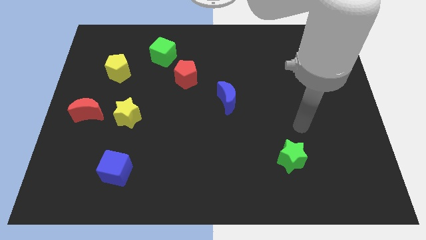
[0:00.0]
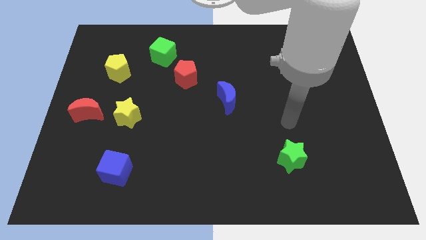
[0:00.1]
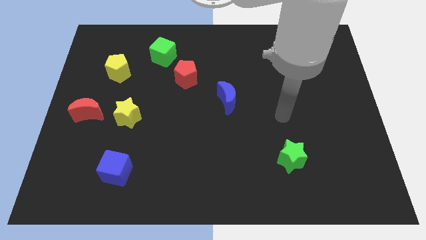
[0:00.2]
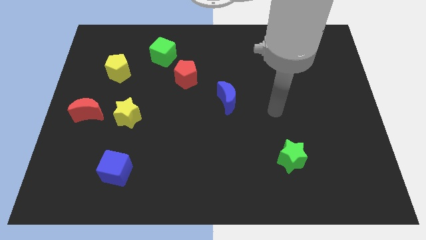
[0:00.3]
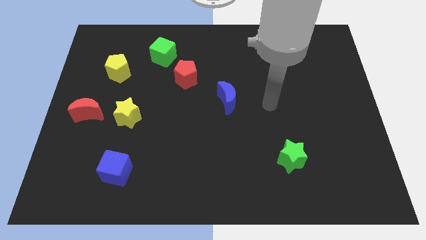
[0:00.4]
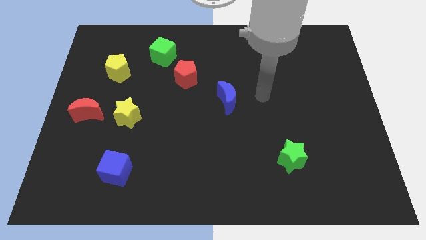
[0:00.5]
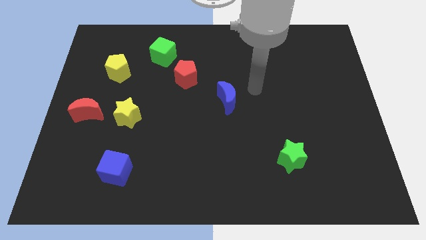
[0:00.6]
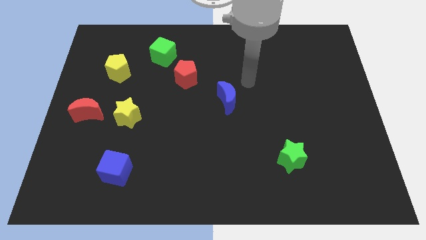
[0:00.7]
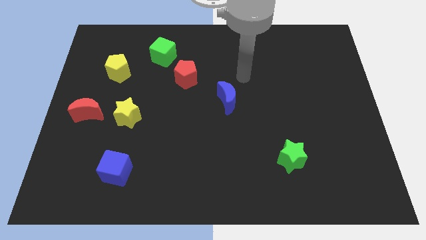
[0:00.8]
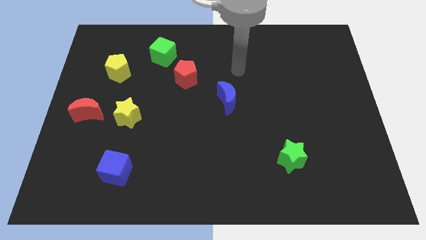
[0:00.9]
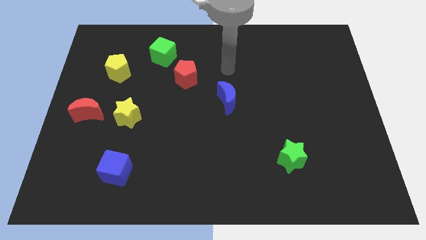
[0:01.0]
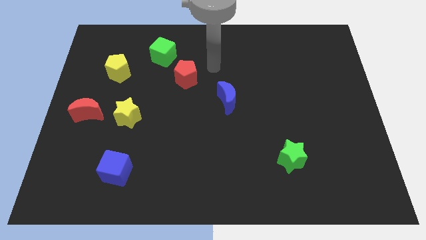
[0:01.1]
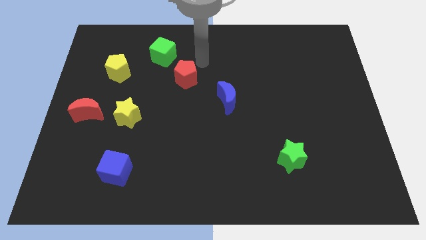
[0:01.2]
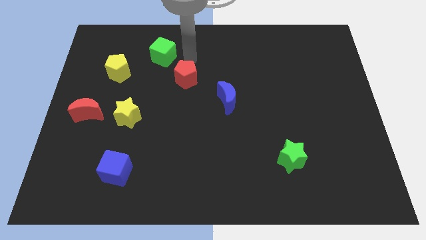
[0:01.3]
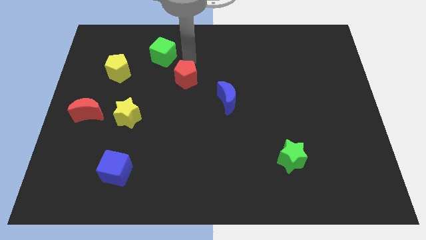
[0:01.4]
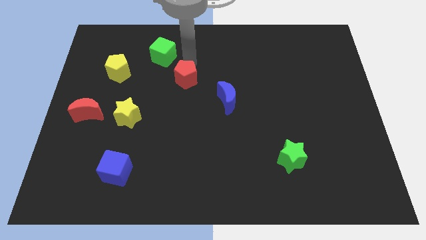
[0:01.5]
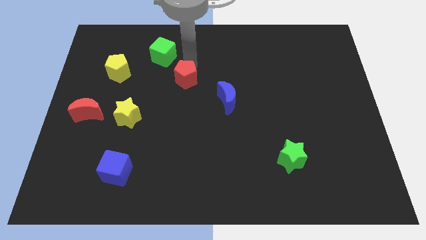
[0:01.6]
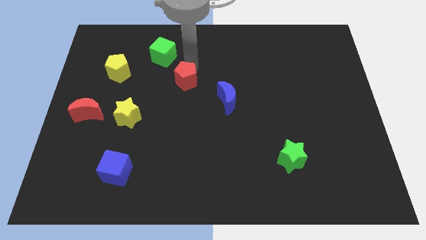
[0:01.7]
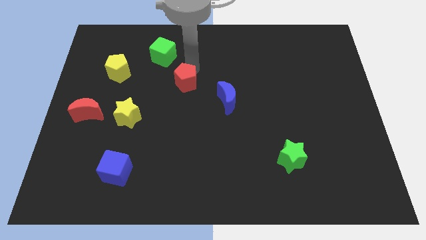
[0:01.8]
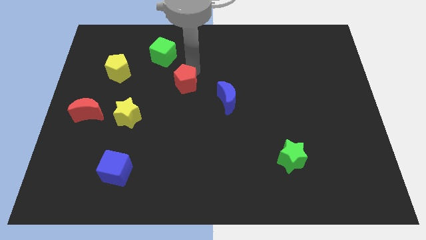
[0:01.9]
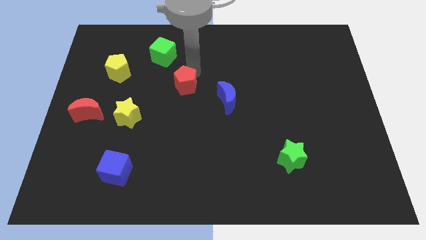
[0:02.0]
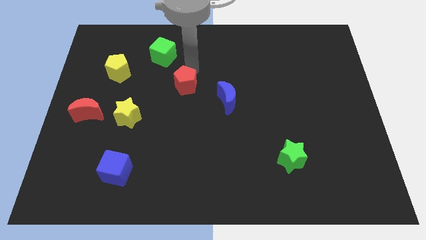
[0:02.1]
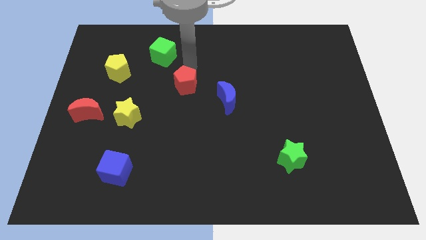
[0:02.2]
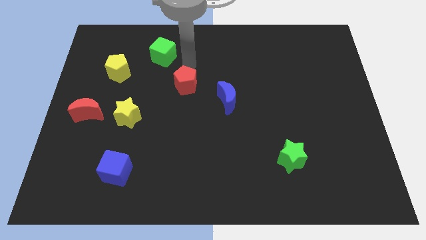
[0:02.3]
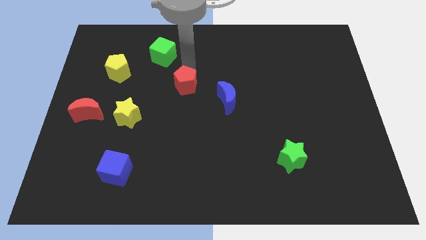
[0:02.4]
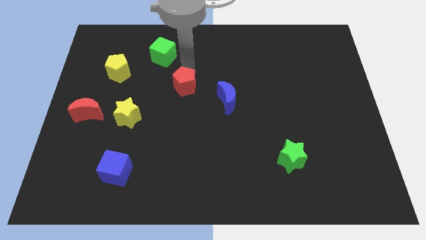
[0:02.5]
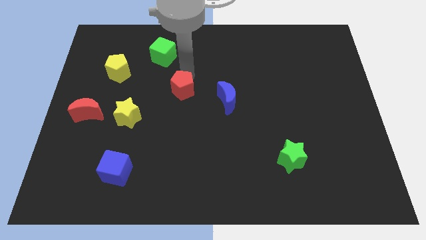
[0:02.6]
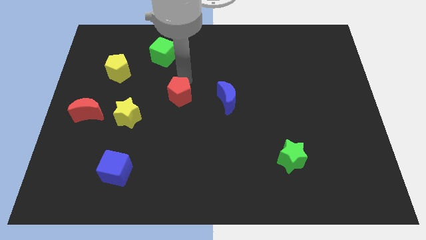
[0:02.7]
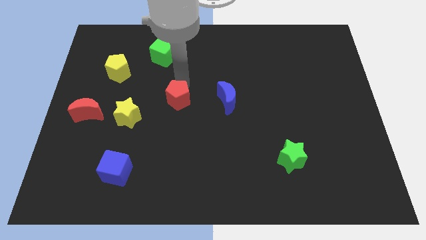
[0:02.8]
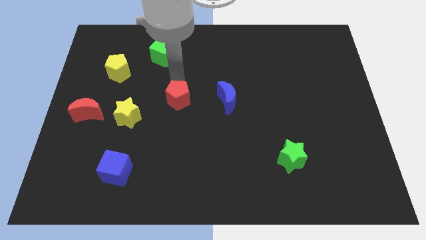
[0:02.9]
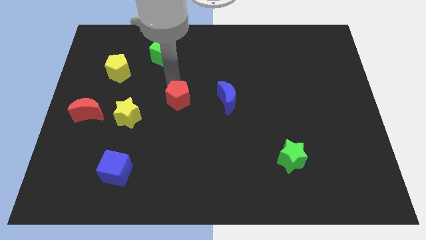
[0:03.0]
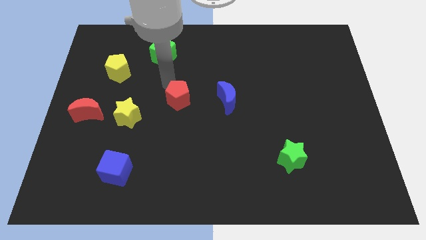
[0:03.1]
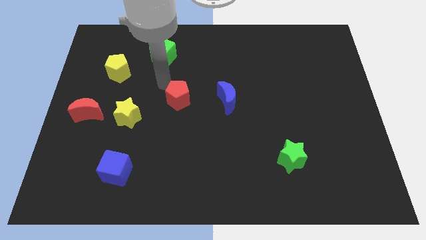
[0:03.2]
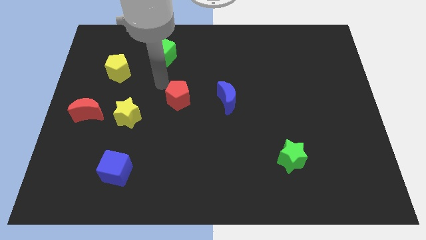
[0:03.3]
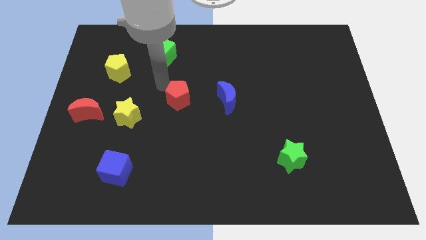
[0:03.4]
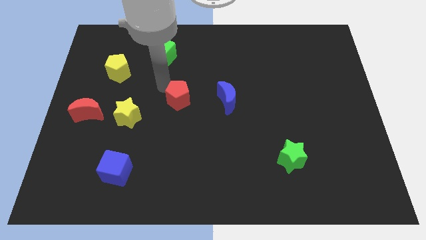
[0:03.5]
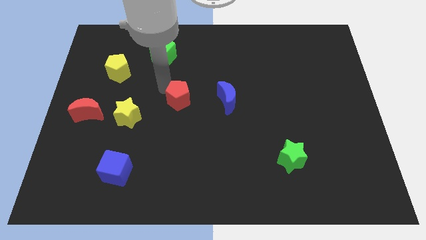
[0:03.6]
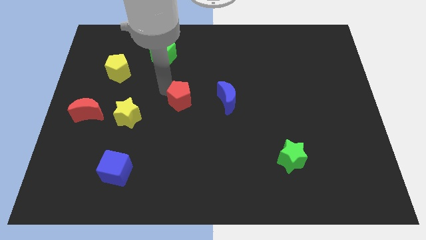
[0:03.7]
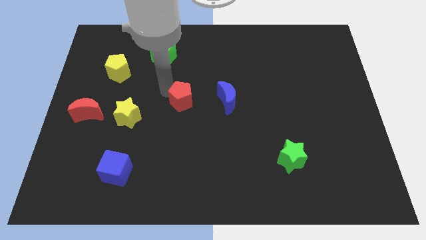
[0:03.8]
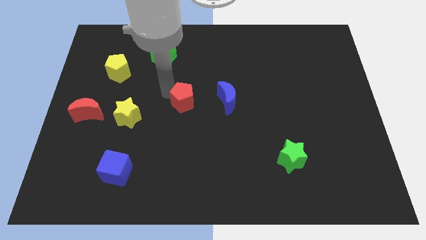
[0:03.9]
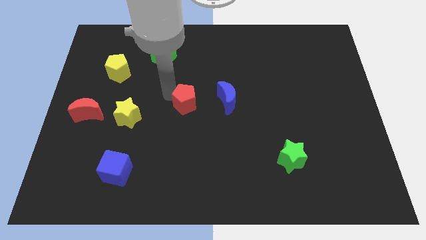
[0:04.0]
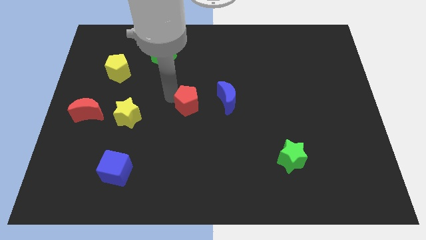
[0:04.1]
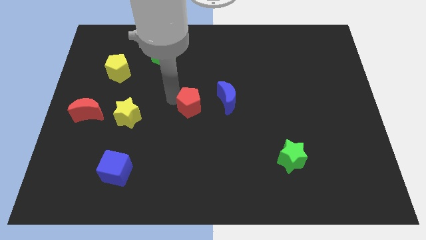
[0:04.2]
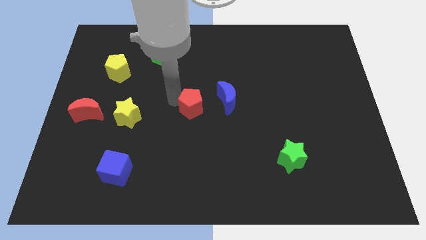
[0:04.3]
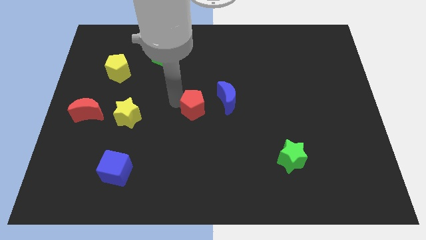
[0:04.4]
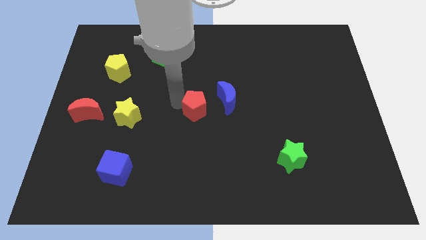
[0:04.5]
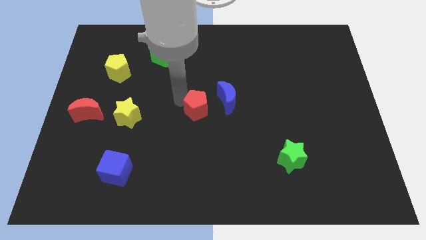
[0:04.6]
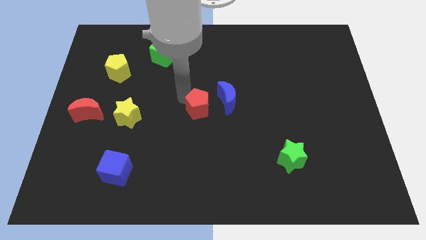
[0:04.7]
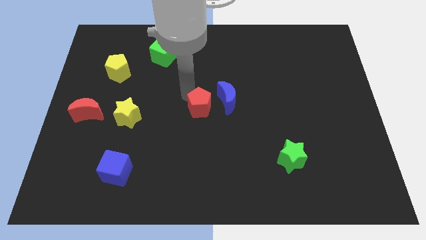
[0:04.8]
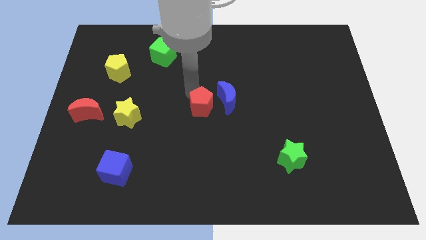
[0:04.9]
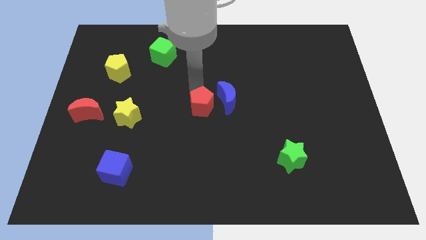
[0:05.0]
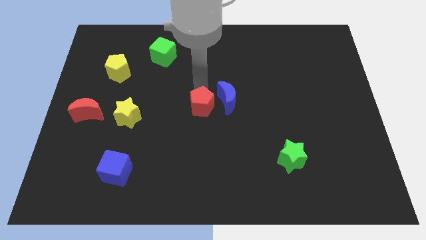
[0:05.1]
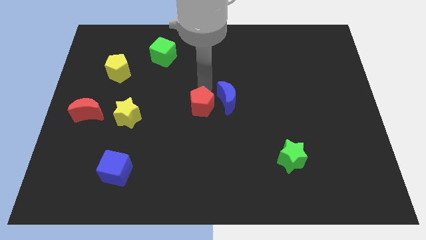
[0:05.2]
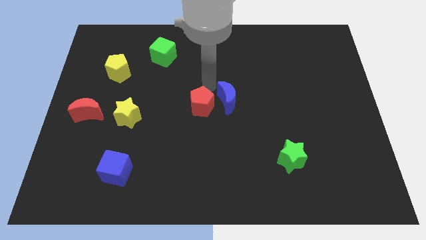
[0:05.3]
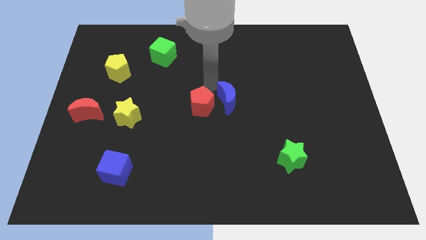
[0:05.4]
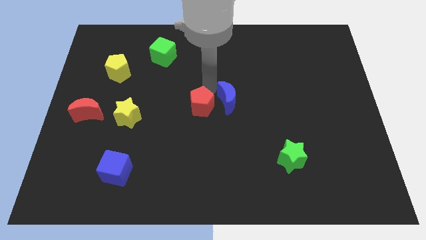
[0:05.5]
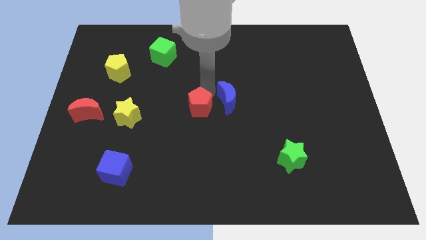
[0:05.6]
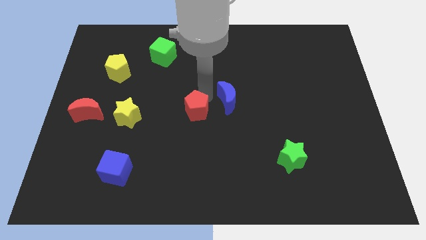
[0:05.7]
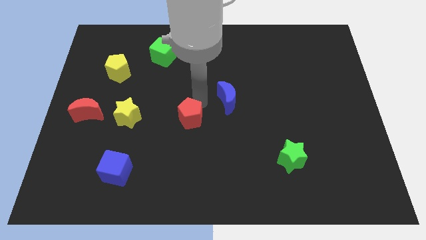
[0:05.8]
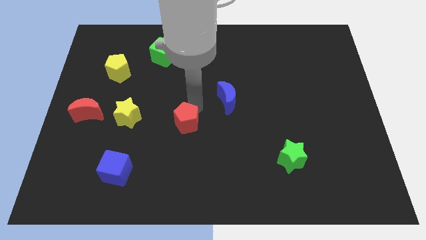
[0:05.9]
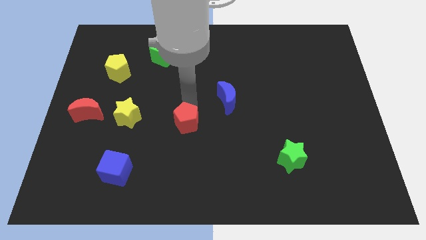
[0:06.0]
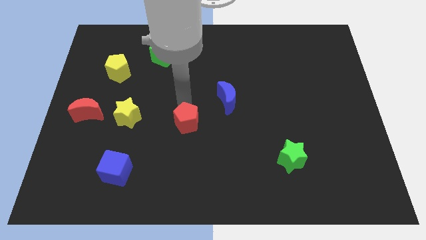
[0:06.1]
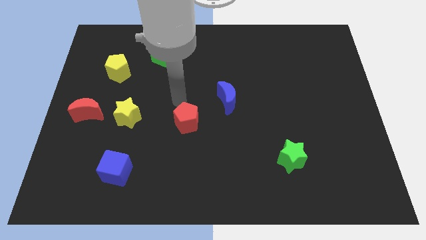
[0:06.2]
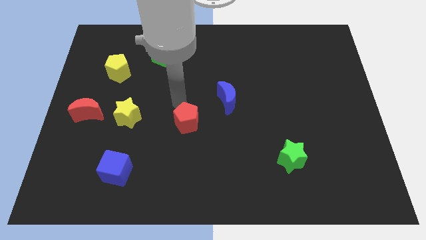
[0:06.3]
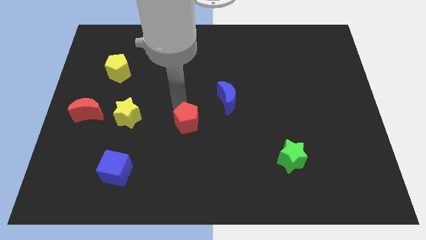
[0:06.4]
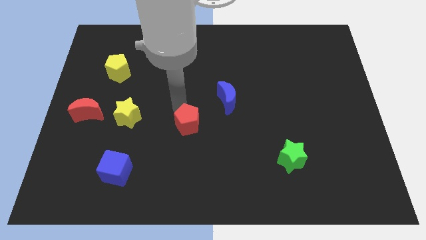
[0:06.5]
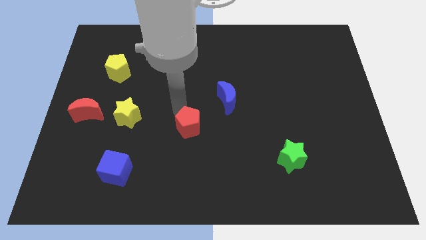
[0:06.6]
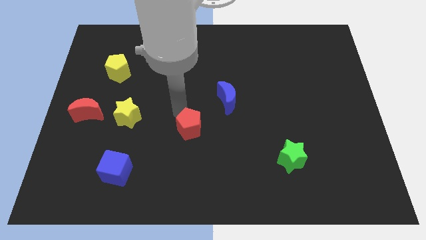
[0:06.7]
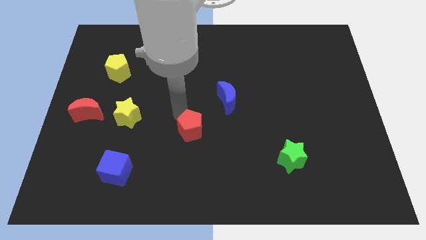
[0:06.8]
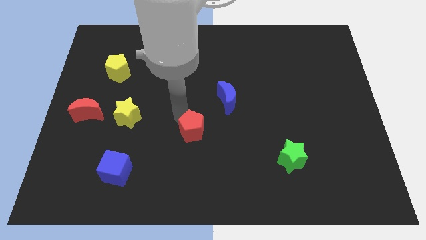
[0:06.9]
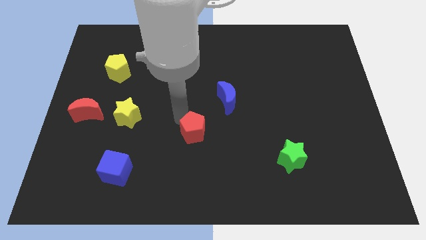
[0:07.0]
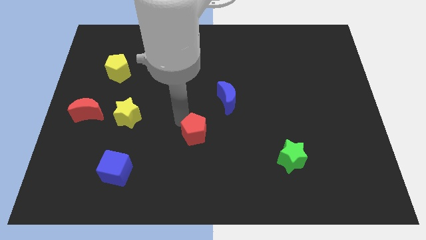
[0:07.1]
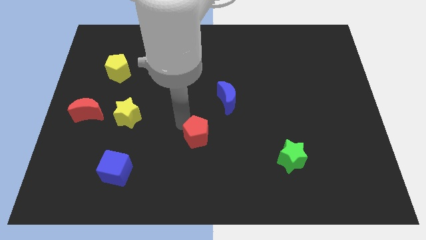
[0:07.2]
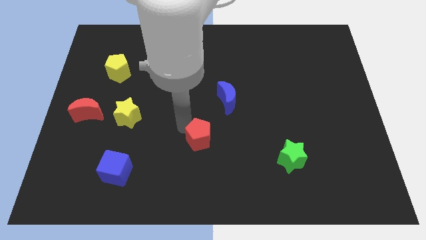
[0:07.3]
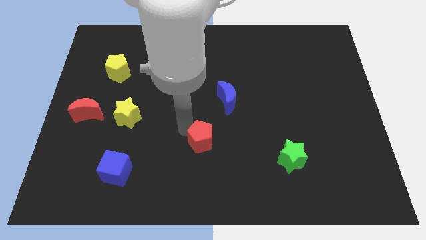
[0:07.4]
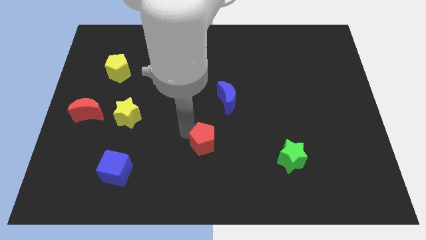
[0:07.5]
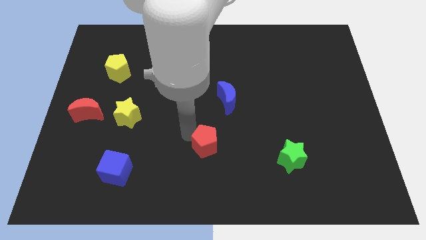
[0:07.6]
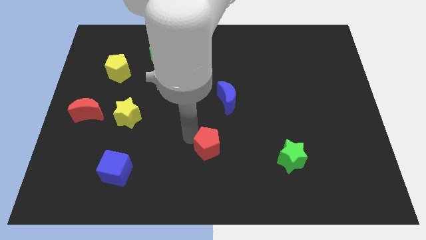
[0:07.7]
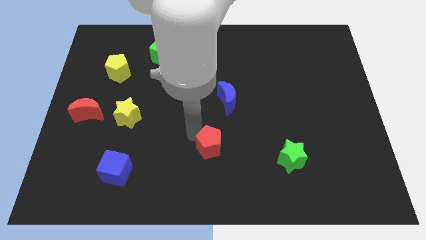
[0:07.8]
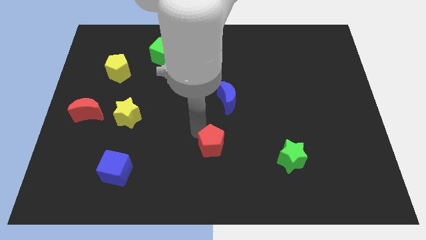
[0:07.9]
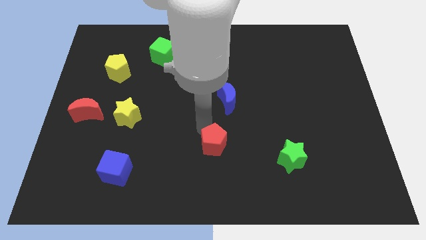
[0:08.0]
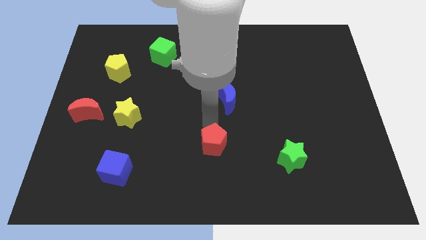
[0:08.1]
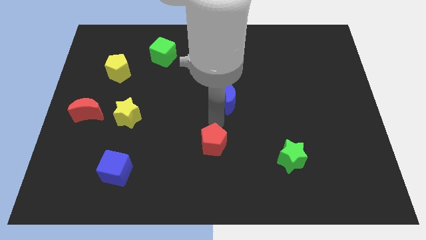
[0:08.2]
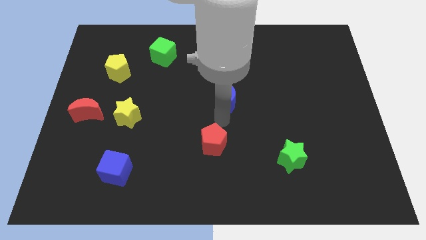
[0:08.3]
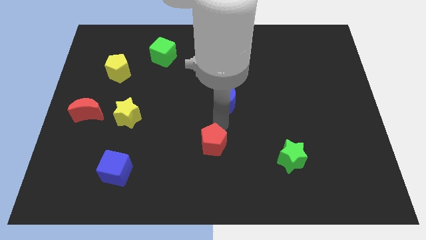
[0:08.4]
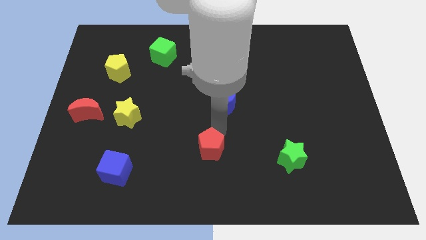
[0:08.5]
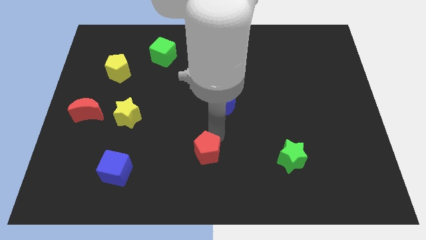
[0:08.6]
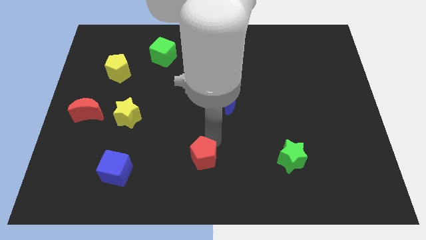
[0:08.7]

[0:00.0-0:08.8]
push the red pentagon to the bottom side
